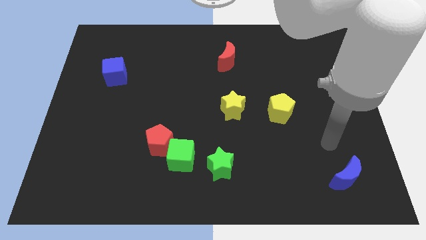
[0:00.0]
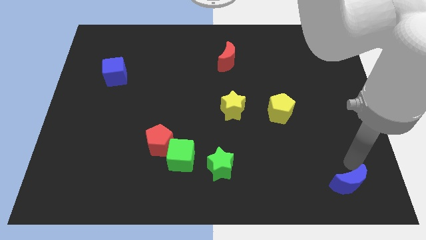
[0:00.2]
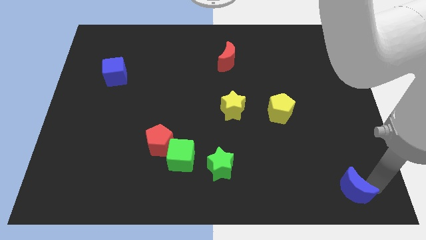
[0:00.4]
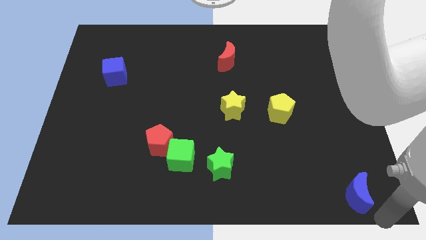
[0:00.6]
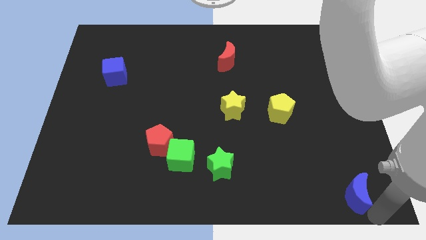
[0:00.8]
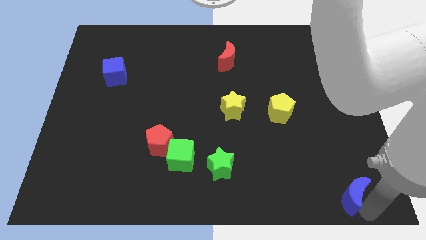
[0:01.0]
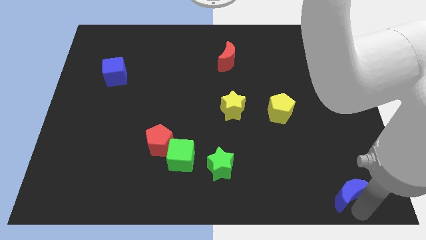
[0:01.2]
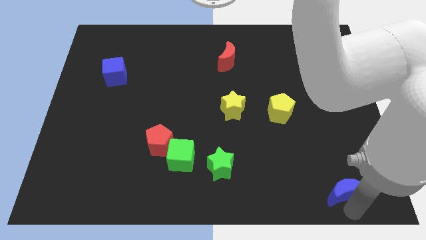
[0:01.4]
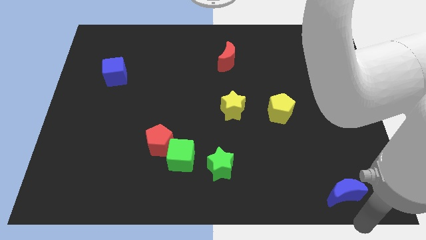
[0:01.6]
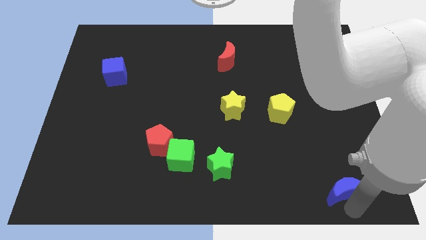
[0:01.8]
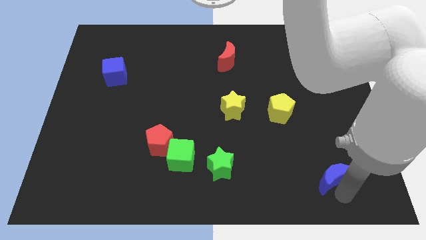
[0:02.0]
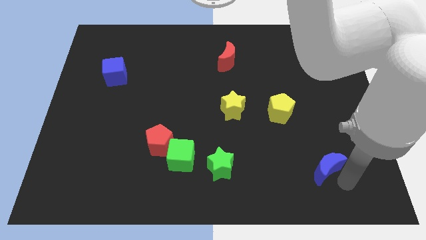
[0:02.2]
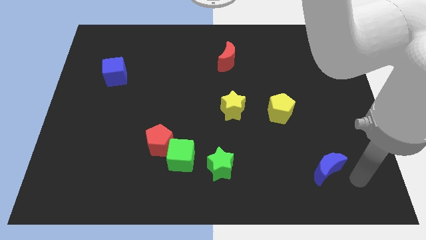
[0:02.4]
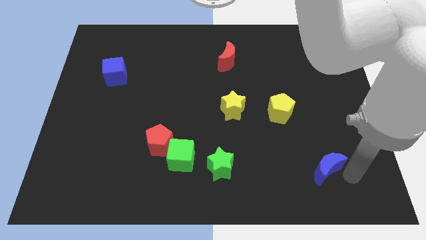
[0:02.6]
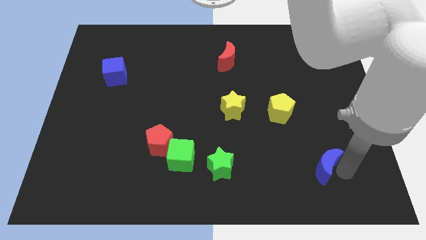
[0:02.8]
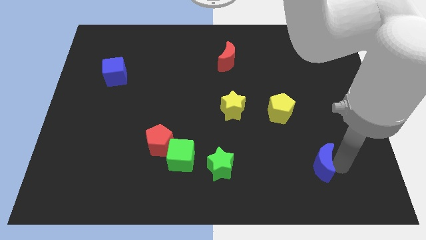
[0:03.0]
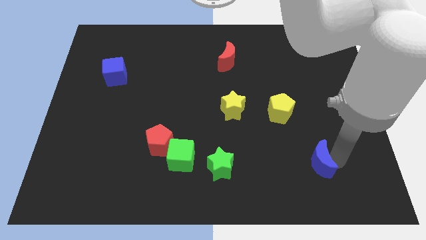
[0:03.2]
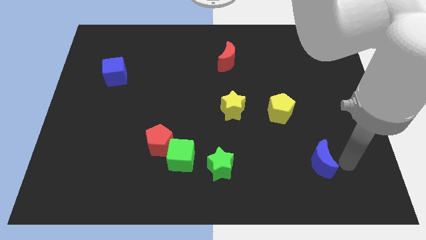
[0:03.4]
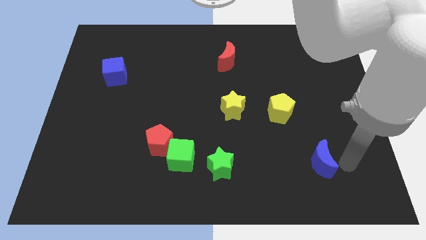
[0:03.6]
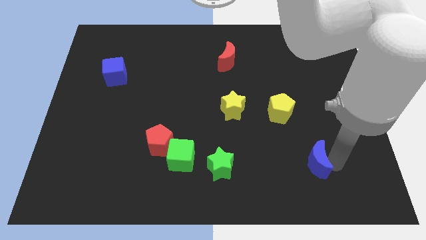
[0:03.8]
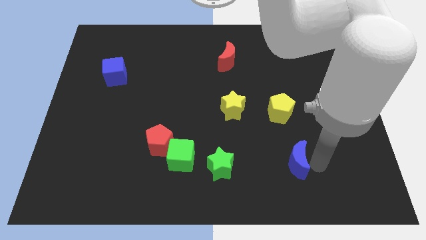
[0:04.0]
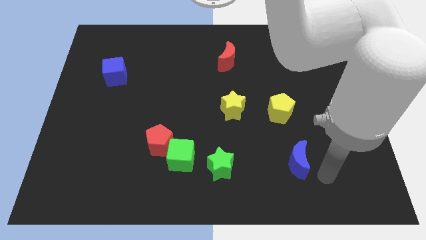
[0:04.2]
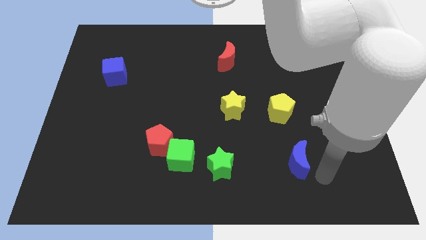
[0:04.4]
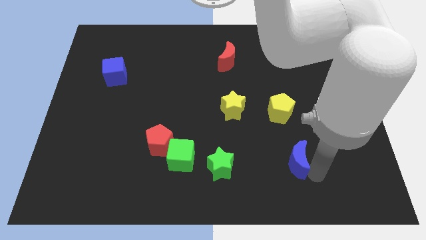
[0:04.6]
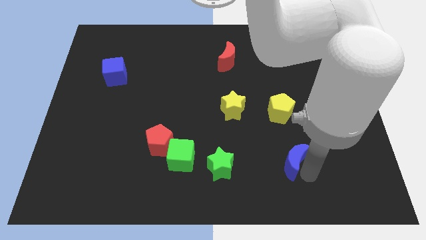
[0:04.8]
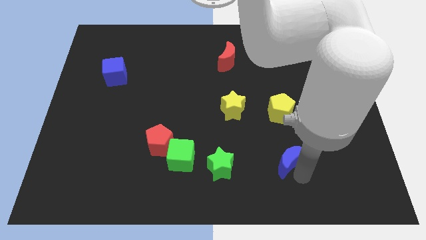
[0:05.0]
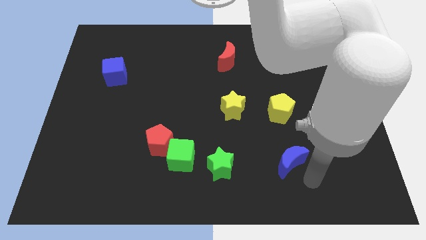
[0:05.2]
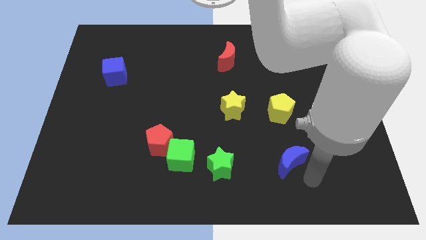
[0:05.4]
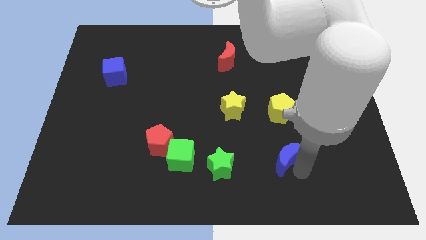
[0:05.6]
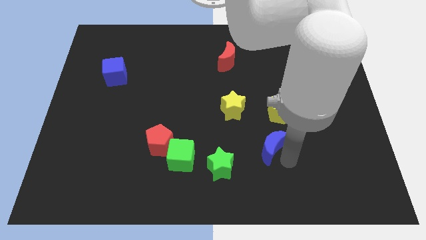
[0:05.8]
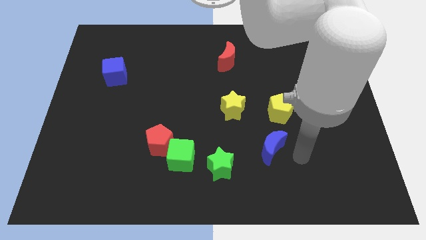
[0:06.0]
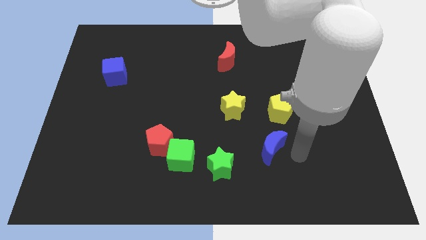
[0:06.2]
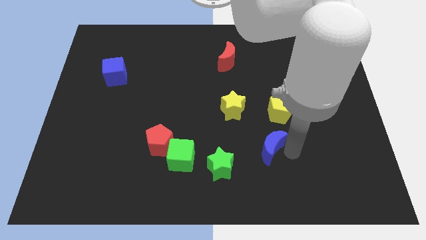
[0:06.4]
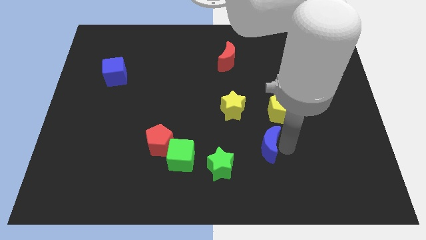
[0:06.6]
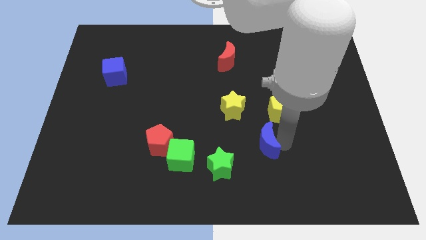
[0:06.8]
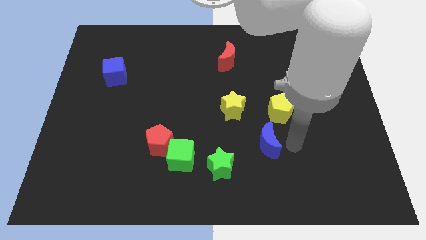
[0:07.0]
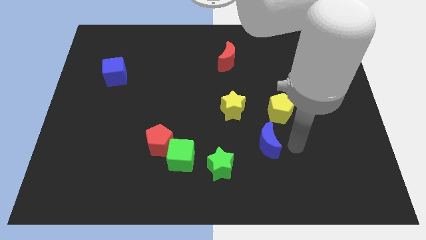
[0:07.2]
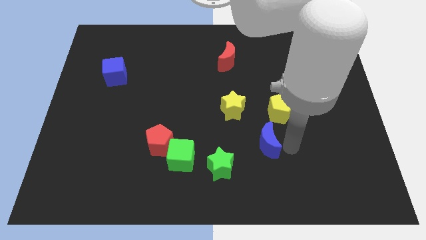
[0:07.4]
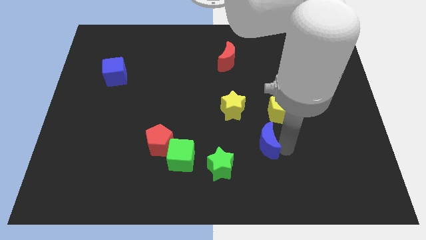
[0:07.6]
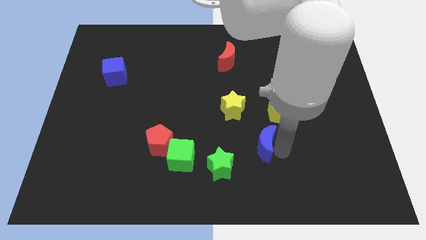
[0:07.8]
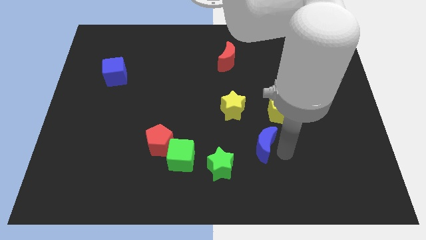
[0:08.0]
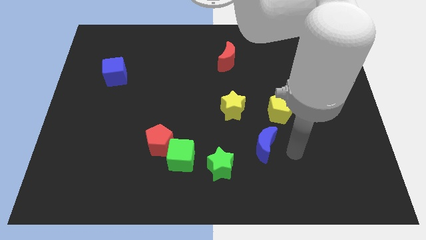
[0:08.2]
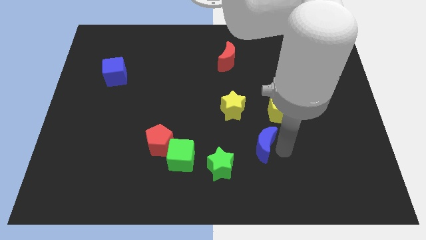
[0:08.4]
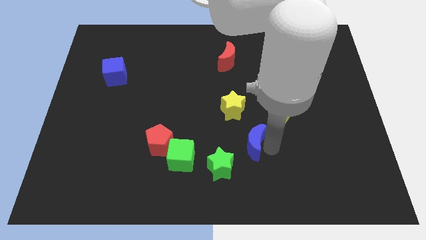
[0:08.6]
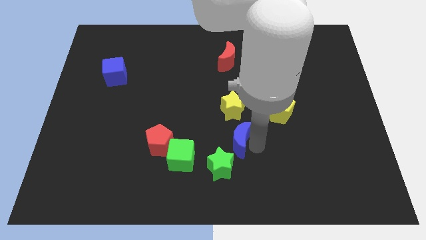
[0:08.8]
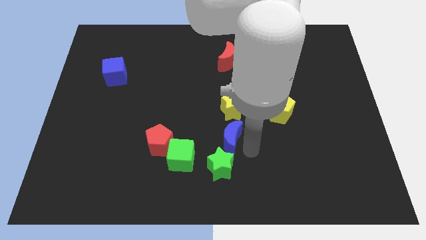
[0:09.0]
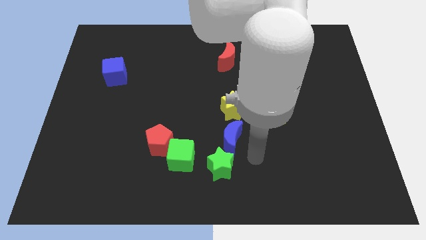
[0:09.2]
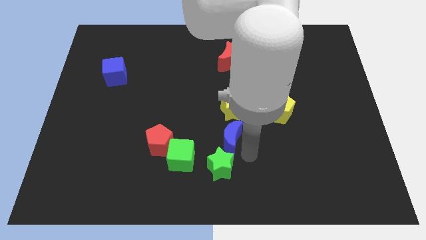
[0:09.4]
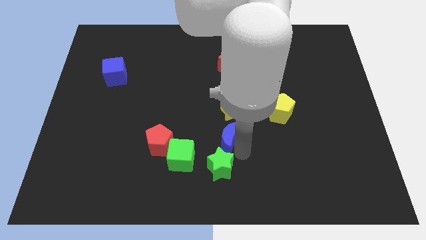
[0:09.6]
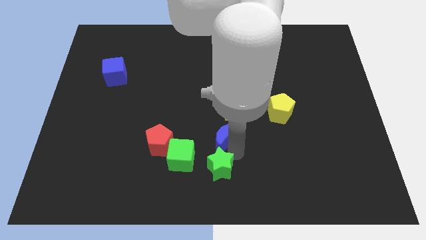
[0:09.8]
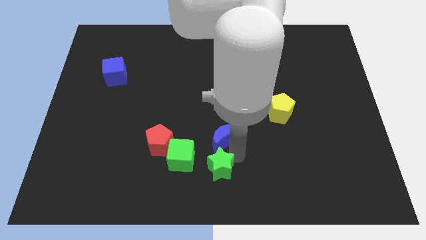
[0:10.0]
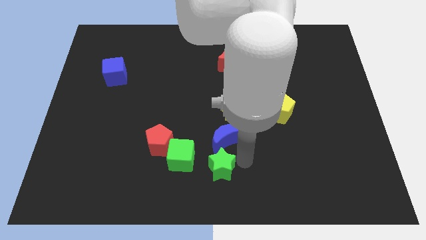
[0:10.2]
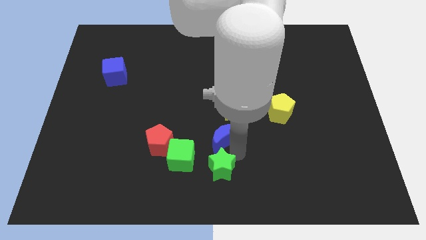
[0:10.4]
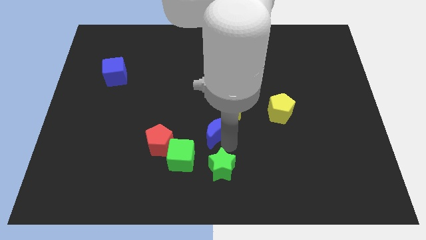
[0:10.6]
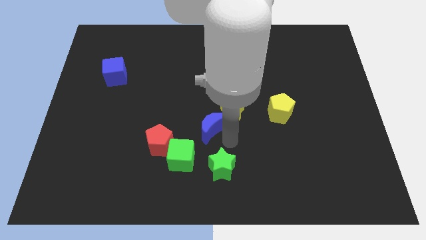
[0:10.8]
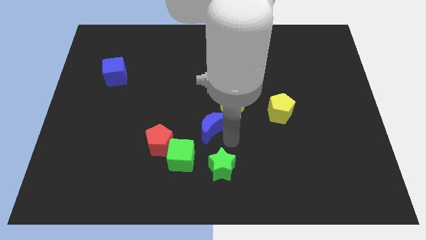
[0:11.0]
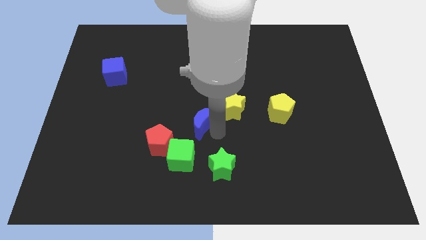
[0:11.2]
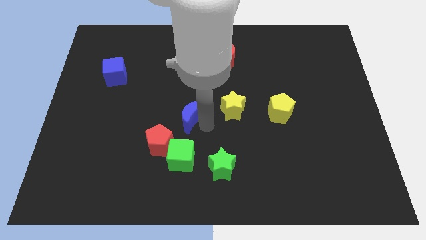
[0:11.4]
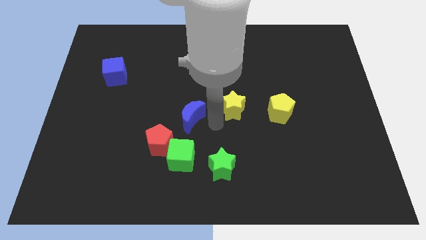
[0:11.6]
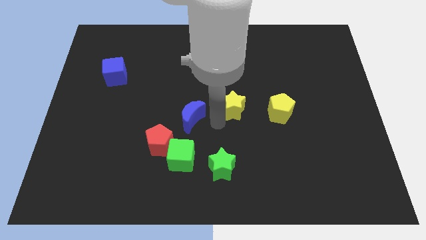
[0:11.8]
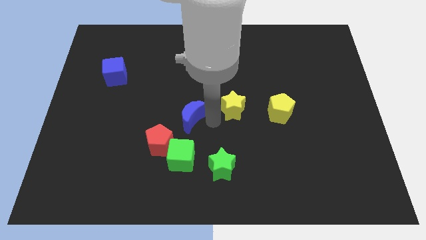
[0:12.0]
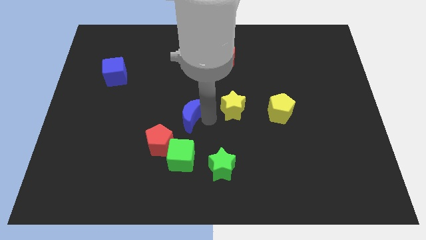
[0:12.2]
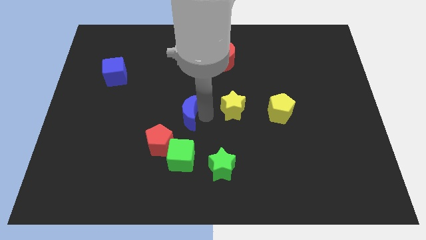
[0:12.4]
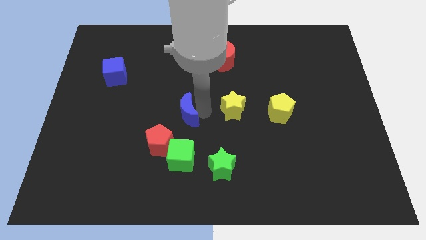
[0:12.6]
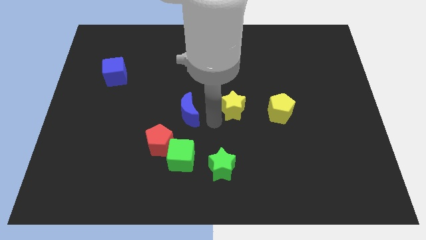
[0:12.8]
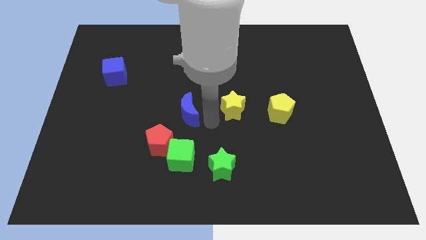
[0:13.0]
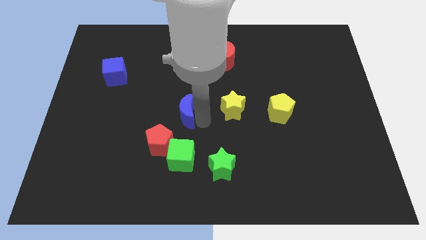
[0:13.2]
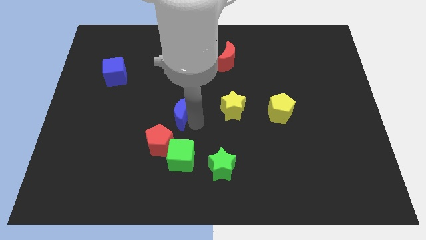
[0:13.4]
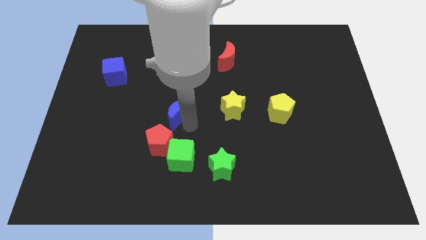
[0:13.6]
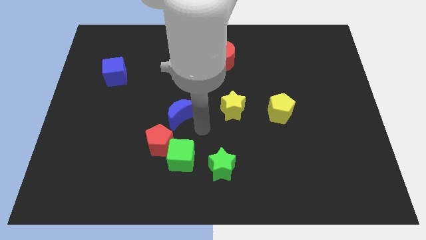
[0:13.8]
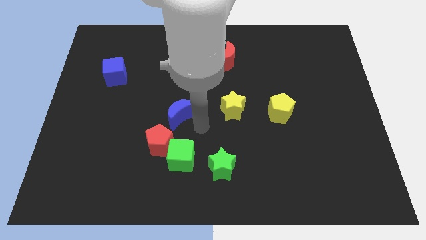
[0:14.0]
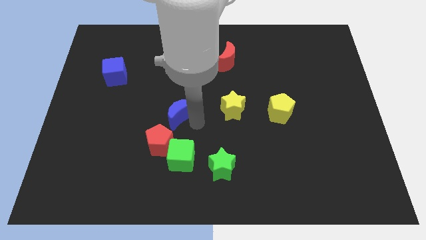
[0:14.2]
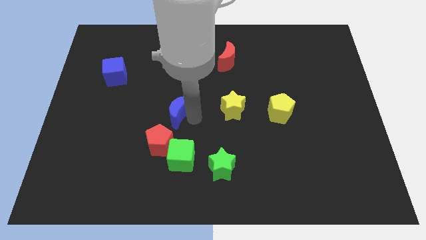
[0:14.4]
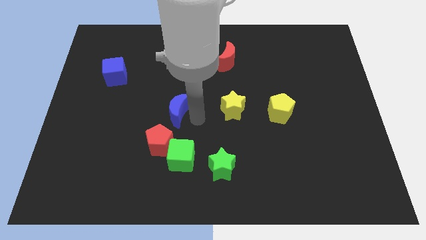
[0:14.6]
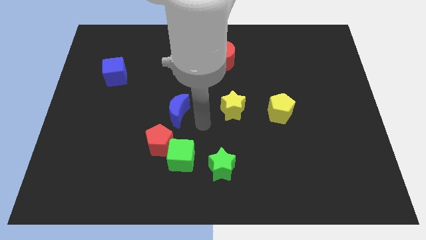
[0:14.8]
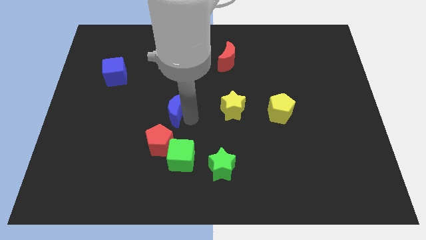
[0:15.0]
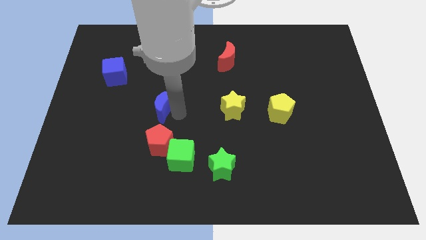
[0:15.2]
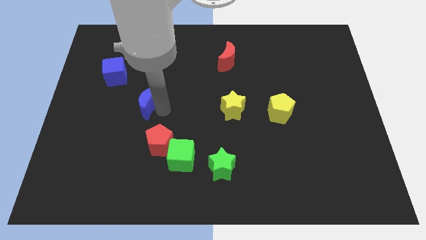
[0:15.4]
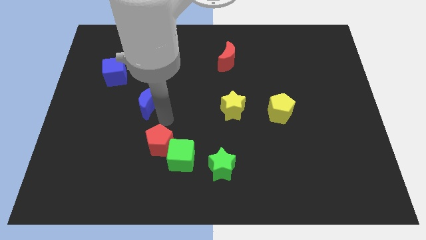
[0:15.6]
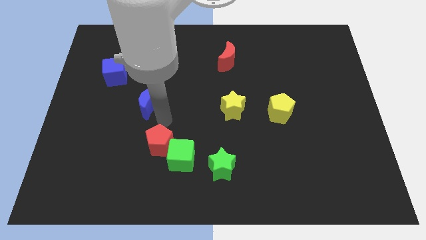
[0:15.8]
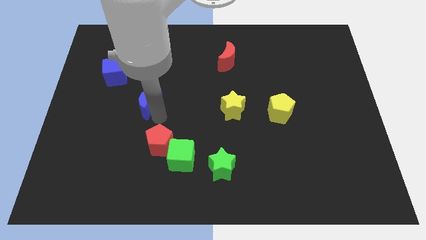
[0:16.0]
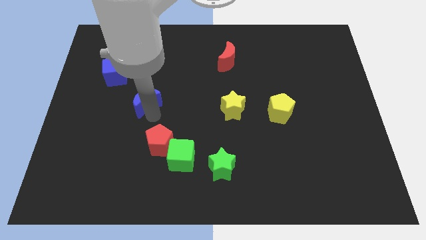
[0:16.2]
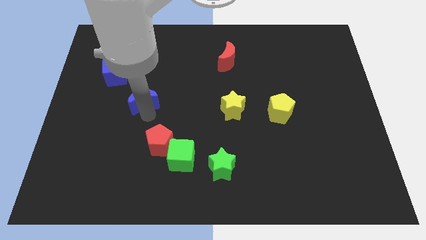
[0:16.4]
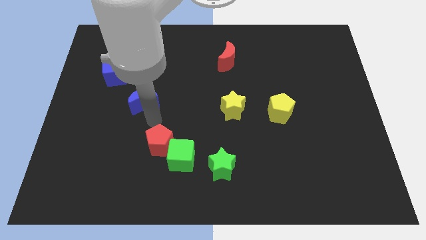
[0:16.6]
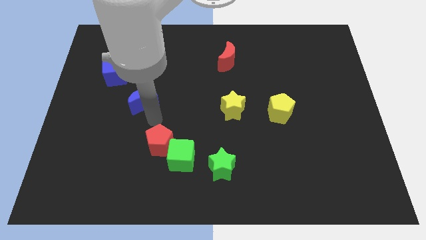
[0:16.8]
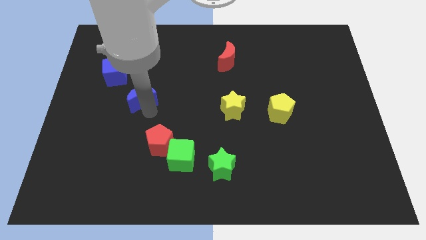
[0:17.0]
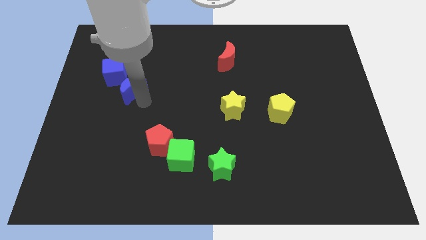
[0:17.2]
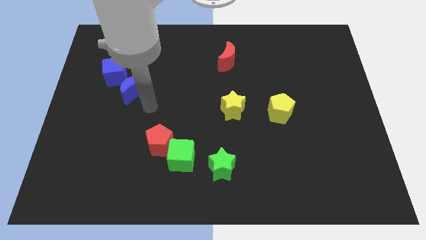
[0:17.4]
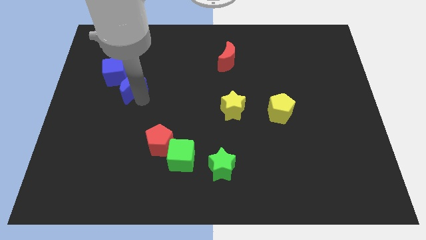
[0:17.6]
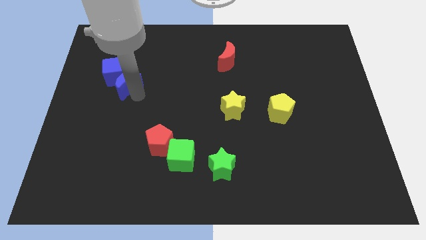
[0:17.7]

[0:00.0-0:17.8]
move the blue moon towards the blue cube
